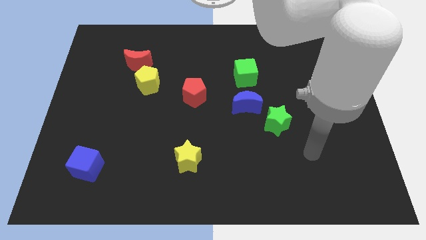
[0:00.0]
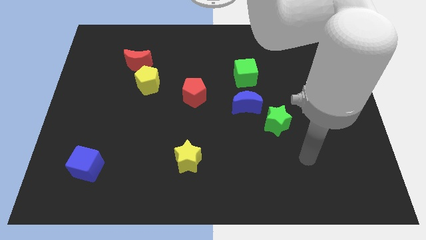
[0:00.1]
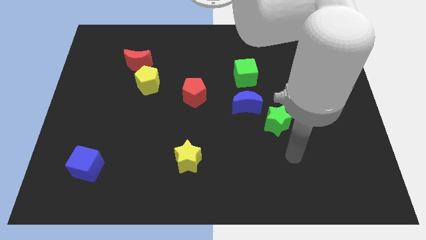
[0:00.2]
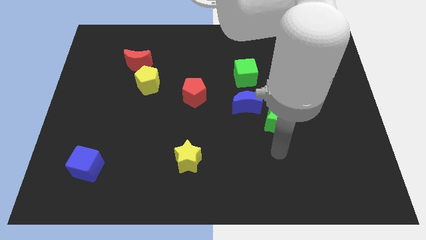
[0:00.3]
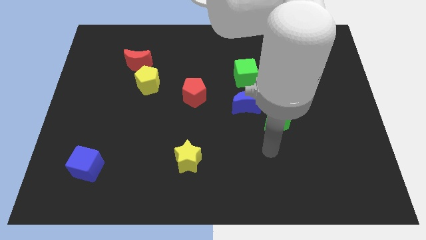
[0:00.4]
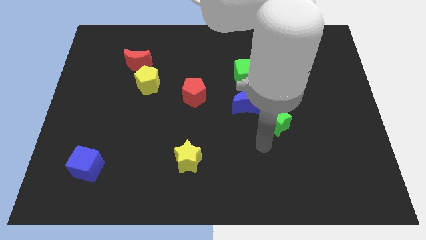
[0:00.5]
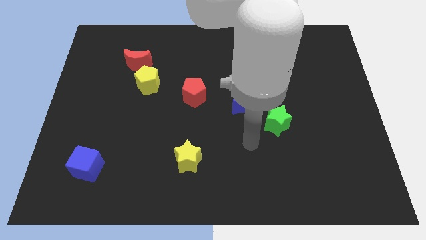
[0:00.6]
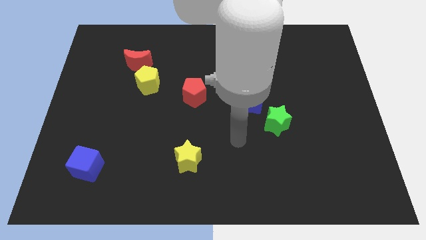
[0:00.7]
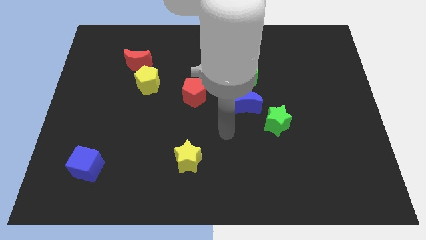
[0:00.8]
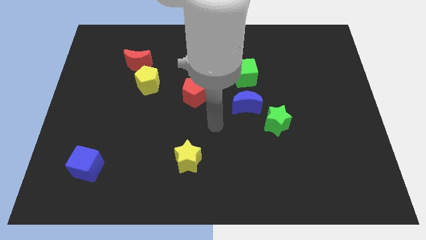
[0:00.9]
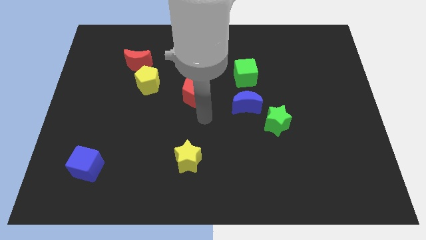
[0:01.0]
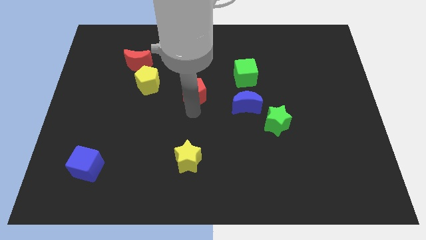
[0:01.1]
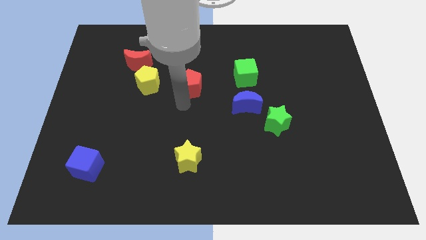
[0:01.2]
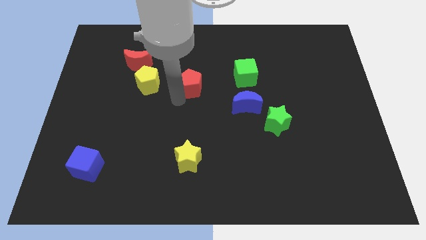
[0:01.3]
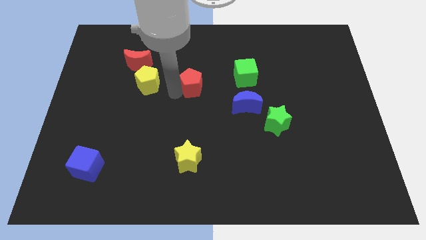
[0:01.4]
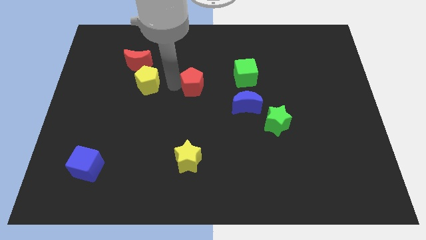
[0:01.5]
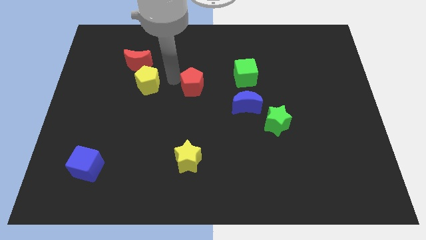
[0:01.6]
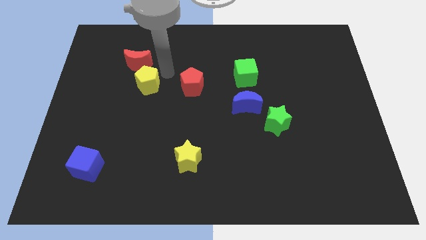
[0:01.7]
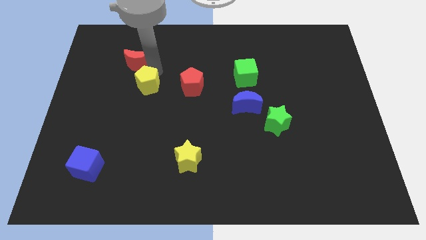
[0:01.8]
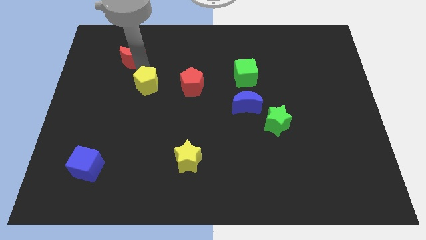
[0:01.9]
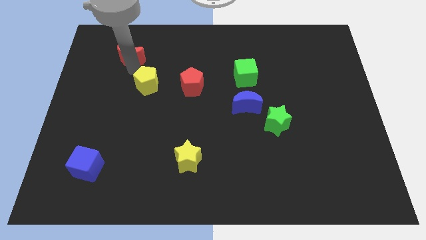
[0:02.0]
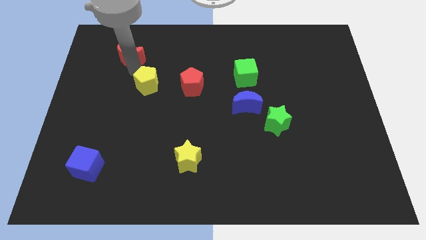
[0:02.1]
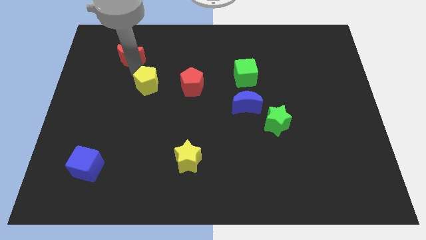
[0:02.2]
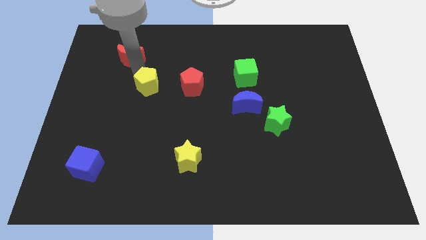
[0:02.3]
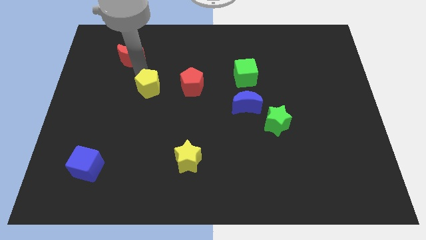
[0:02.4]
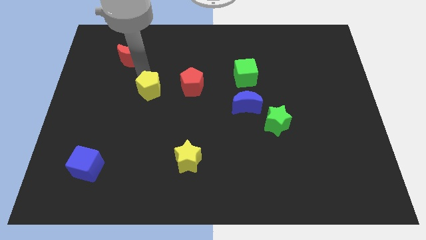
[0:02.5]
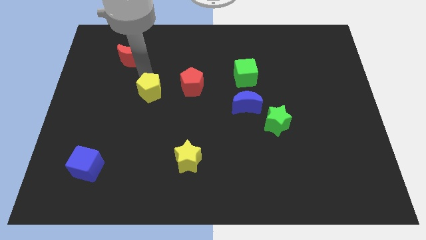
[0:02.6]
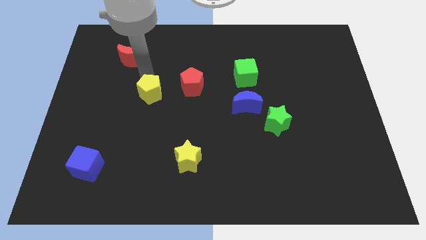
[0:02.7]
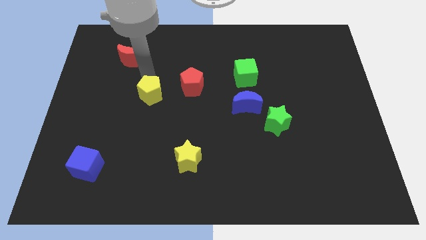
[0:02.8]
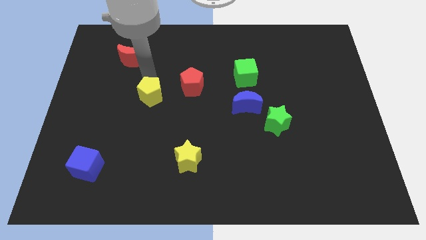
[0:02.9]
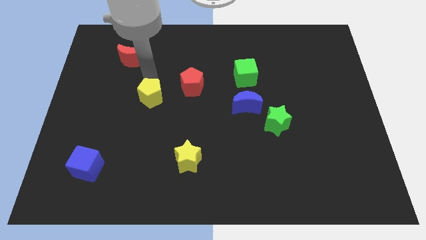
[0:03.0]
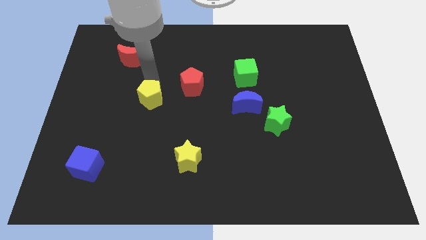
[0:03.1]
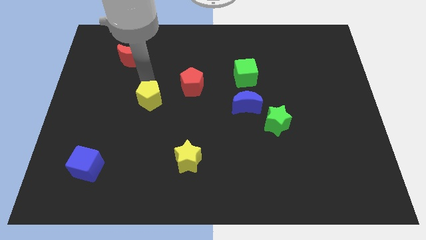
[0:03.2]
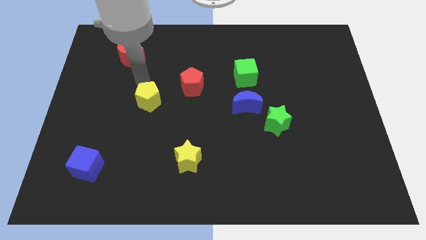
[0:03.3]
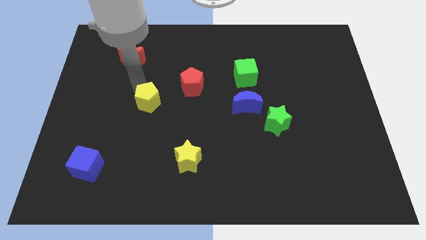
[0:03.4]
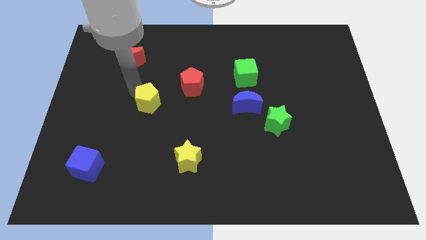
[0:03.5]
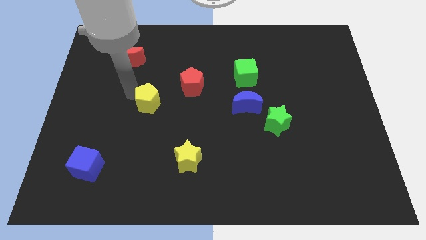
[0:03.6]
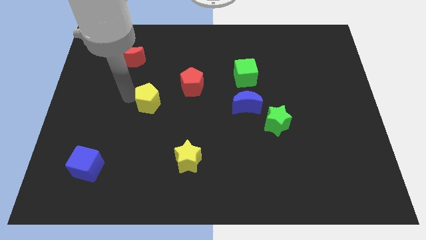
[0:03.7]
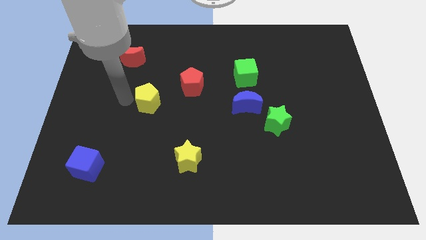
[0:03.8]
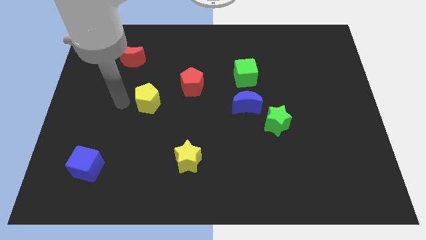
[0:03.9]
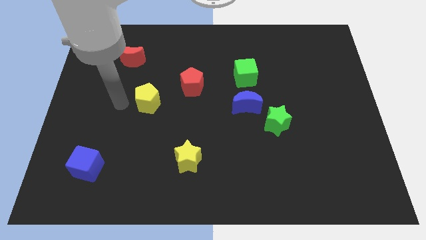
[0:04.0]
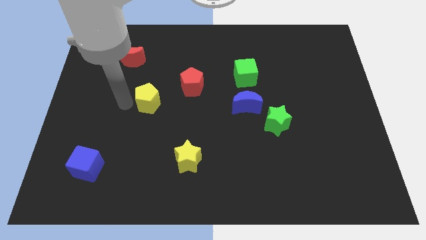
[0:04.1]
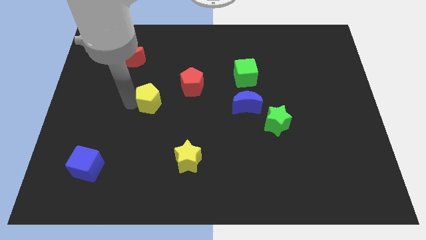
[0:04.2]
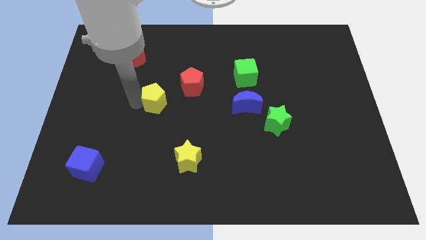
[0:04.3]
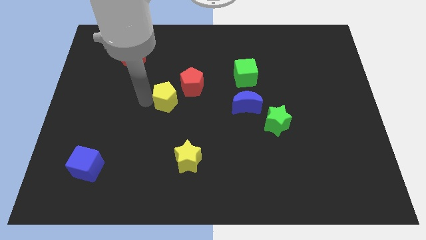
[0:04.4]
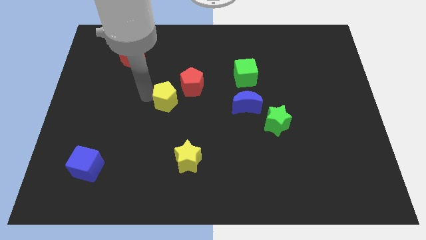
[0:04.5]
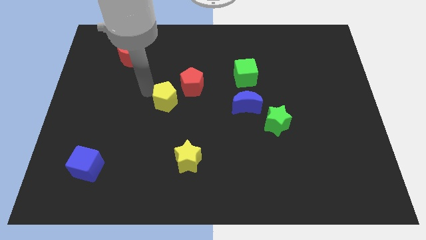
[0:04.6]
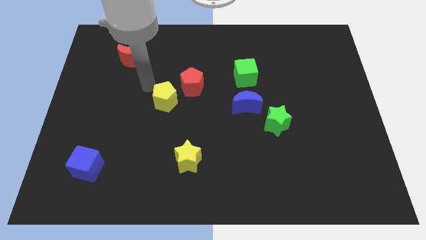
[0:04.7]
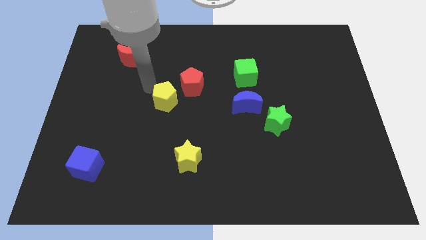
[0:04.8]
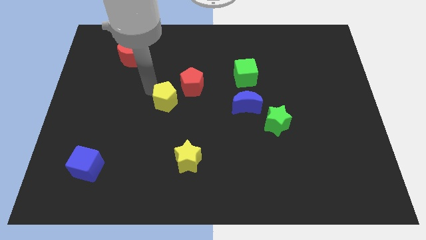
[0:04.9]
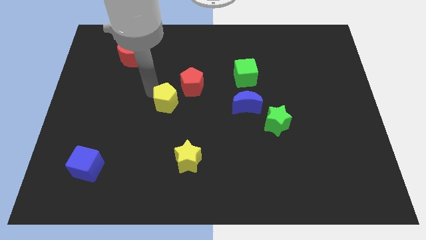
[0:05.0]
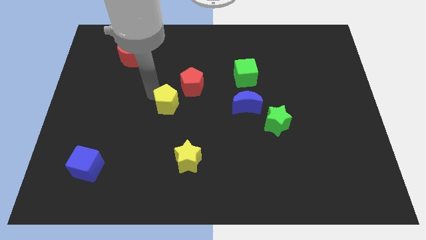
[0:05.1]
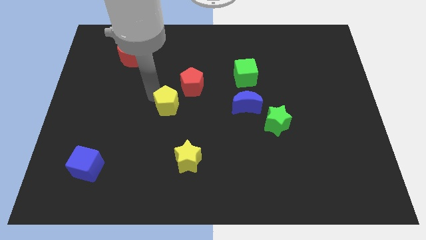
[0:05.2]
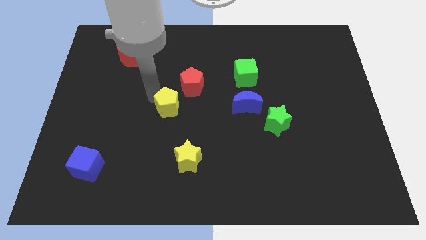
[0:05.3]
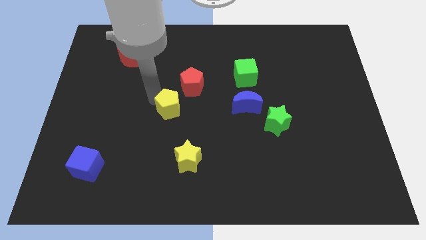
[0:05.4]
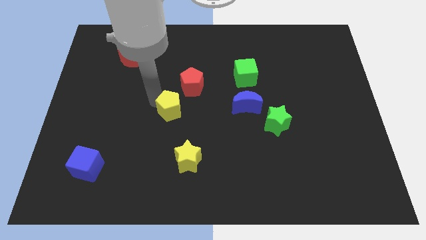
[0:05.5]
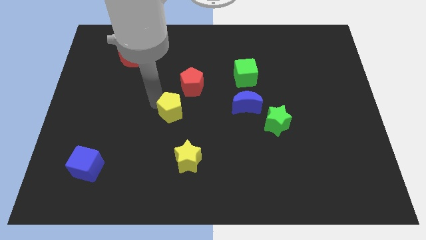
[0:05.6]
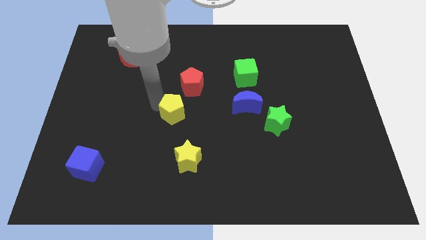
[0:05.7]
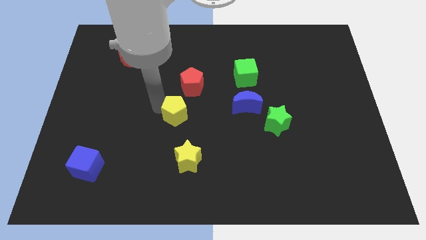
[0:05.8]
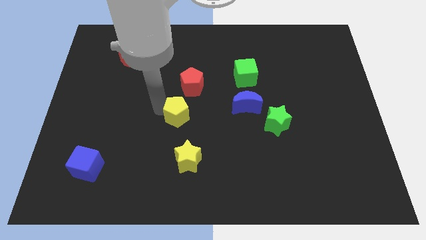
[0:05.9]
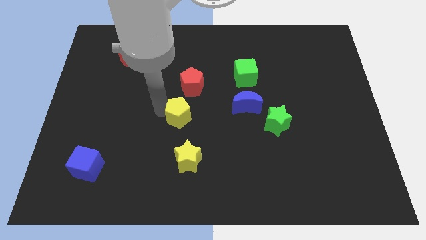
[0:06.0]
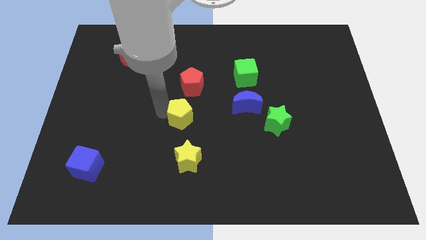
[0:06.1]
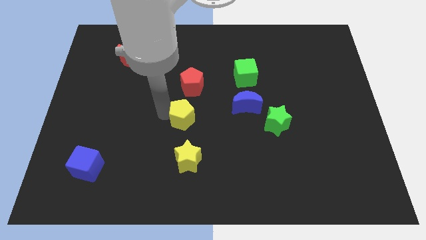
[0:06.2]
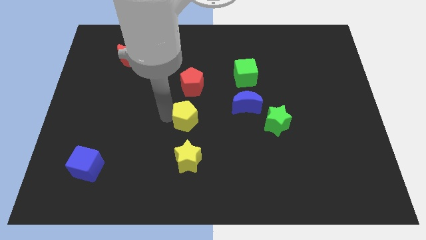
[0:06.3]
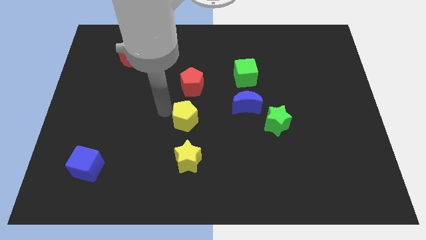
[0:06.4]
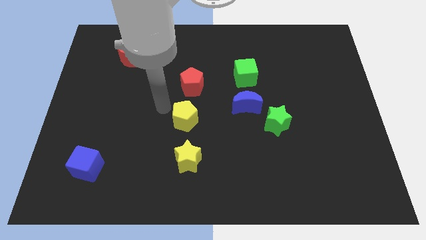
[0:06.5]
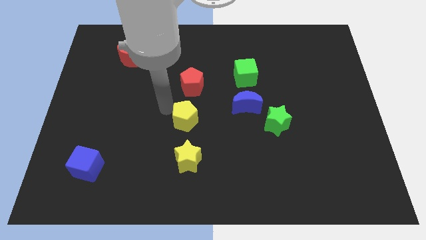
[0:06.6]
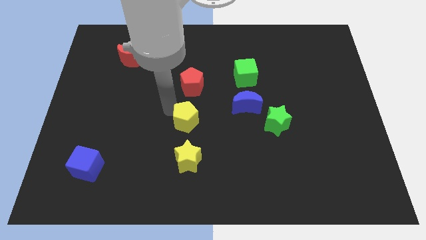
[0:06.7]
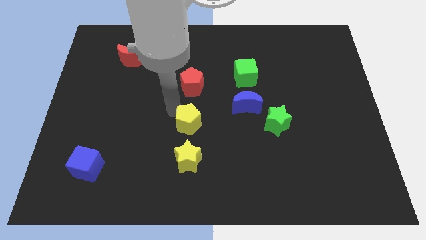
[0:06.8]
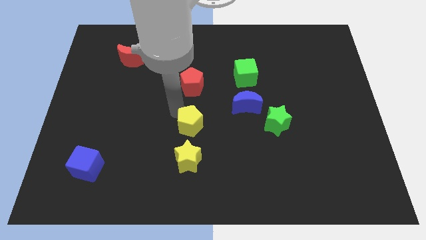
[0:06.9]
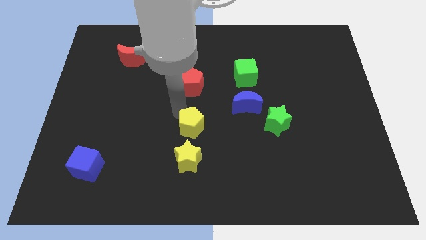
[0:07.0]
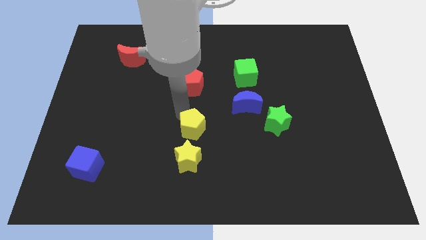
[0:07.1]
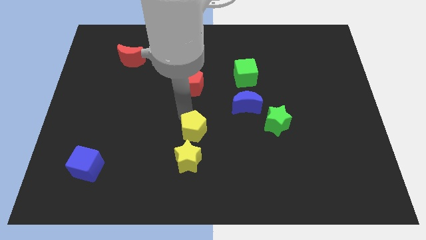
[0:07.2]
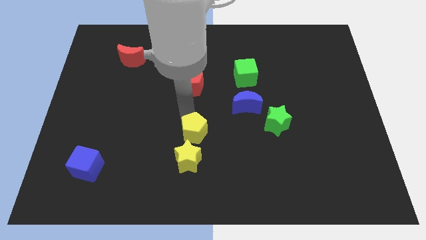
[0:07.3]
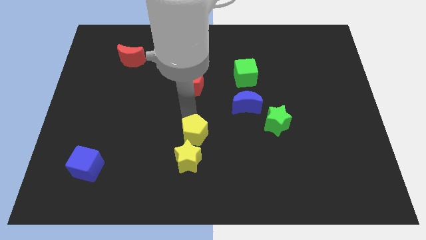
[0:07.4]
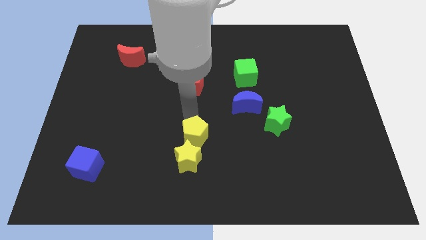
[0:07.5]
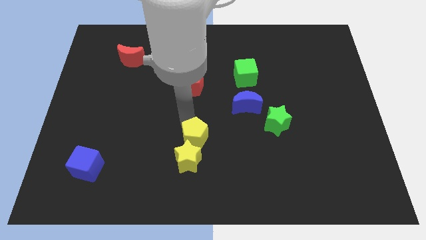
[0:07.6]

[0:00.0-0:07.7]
move the yellow pentagon down and then right

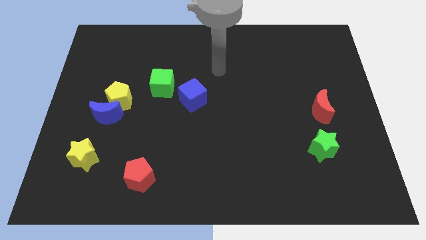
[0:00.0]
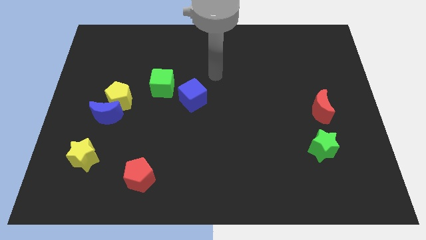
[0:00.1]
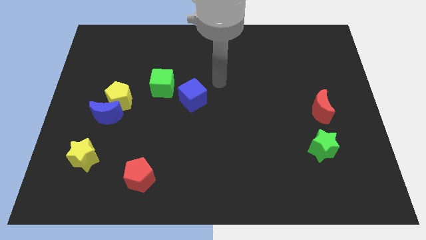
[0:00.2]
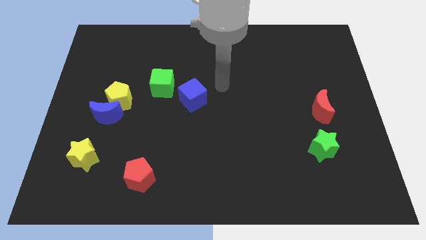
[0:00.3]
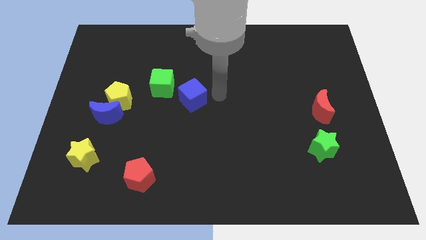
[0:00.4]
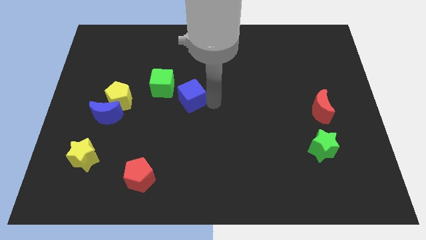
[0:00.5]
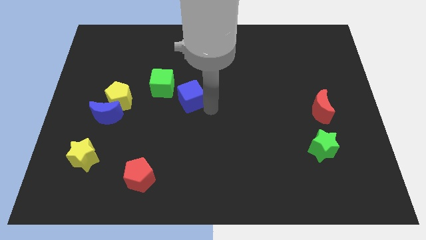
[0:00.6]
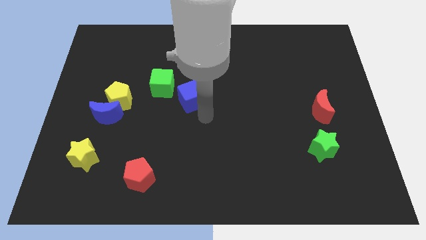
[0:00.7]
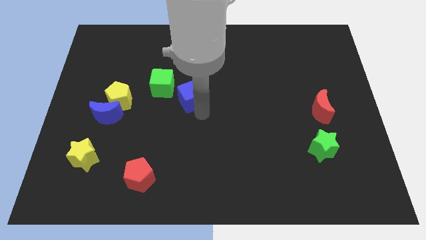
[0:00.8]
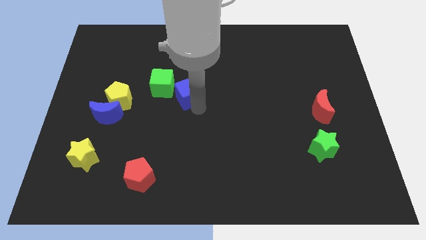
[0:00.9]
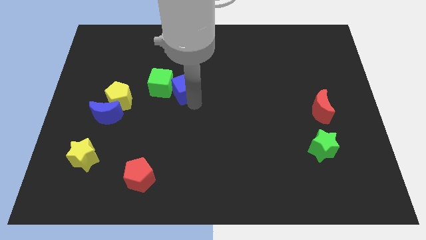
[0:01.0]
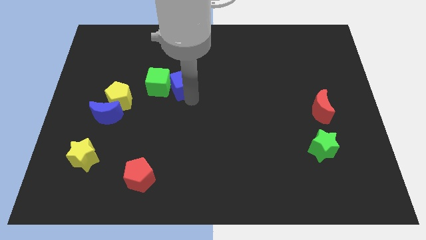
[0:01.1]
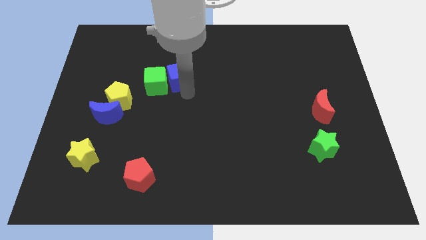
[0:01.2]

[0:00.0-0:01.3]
slide the blue cube somewhat upwards and to the left diagonally
